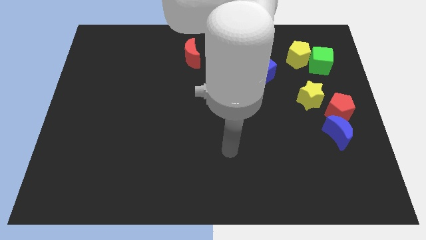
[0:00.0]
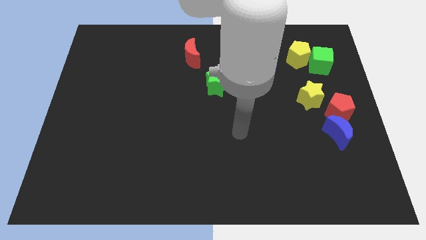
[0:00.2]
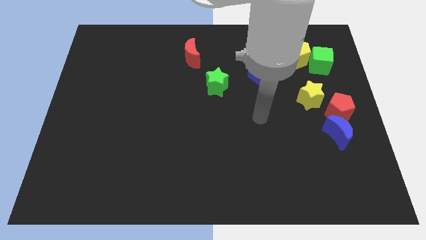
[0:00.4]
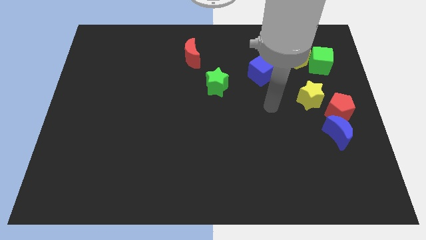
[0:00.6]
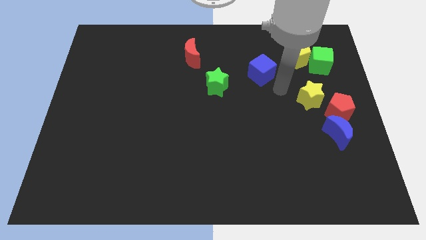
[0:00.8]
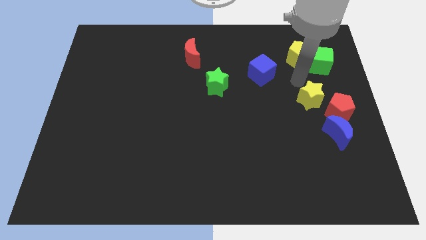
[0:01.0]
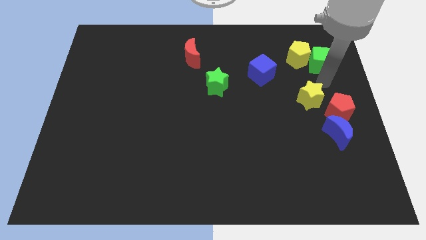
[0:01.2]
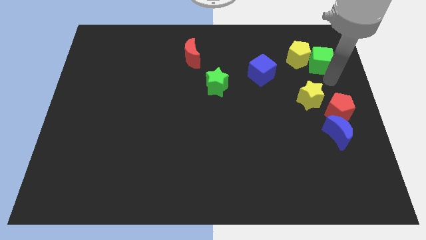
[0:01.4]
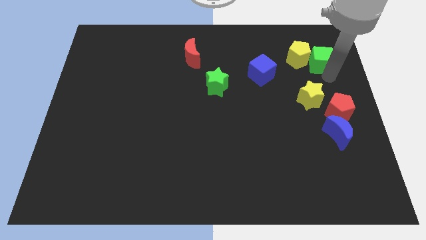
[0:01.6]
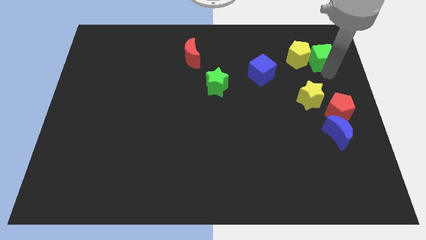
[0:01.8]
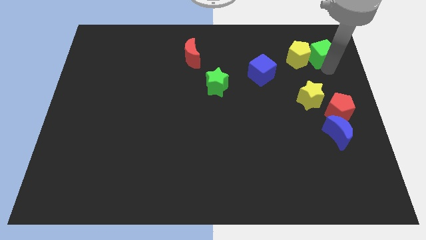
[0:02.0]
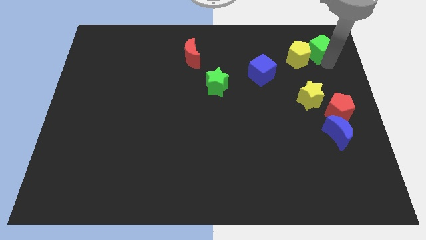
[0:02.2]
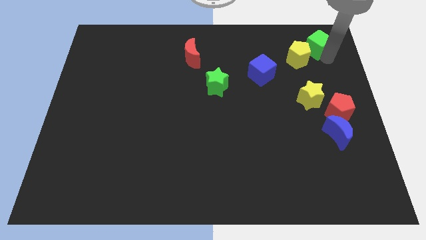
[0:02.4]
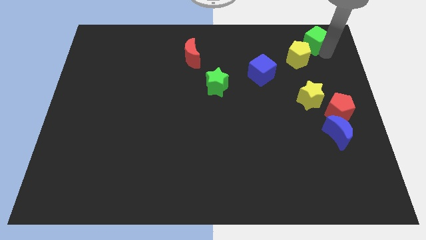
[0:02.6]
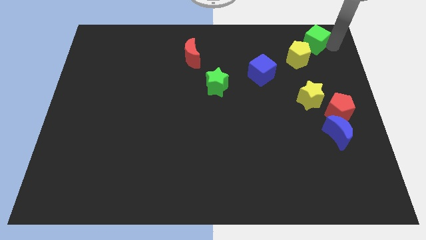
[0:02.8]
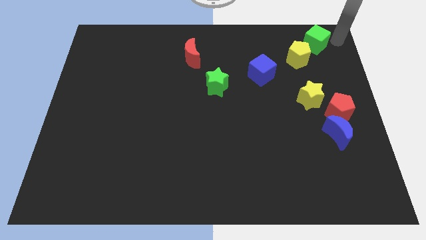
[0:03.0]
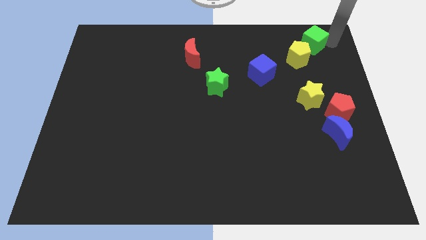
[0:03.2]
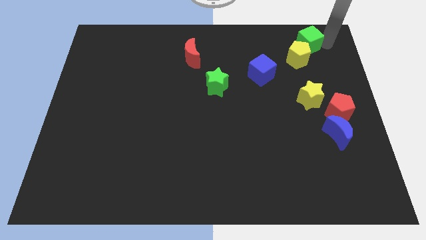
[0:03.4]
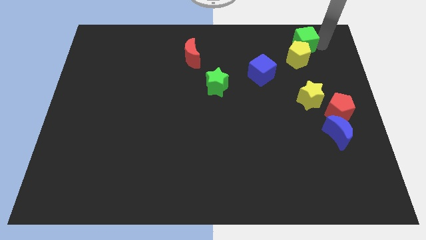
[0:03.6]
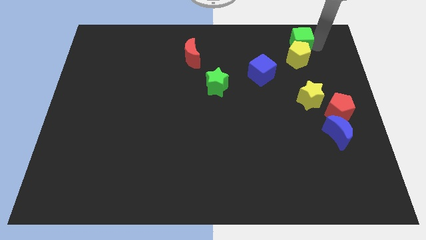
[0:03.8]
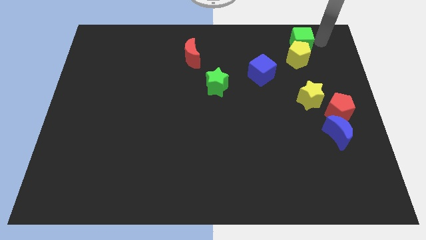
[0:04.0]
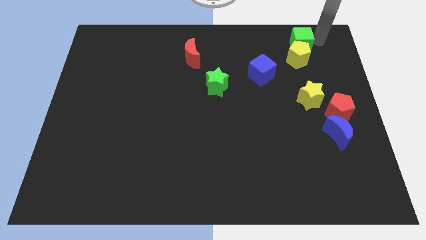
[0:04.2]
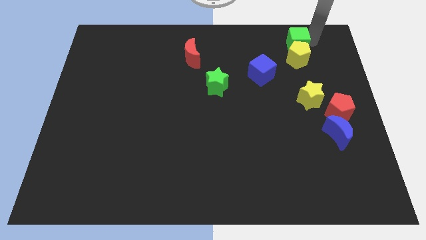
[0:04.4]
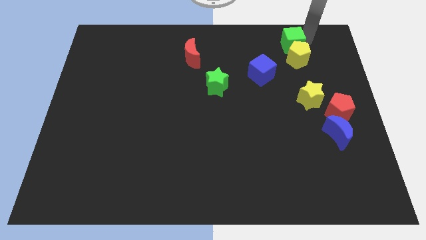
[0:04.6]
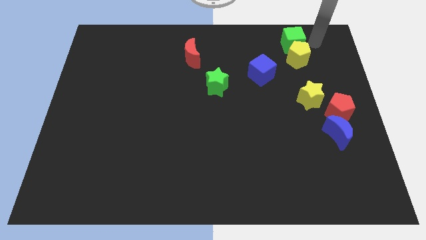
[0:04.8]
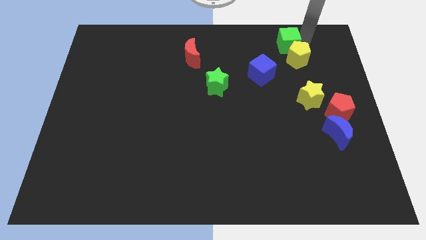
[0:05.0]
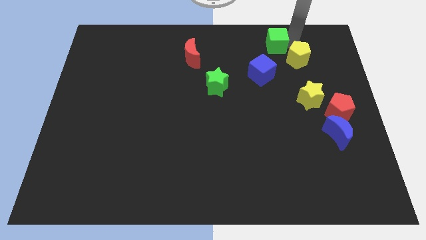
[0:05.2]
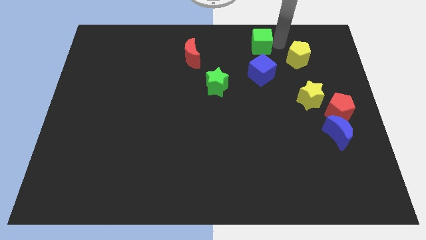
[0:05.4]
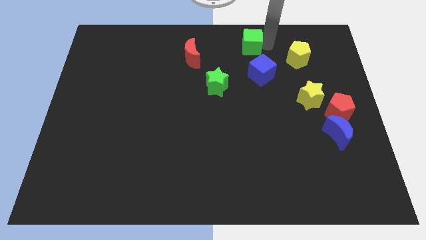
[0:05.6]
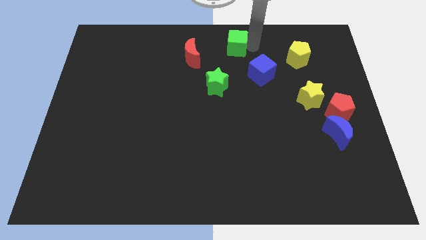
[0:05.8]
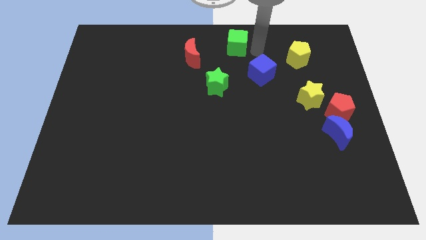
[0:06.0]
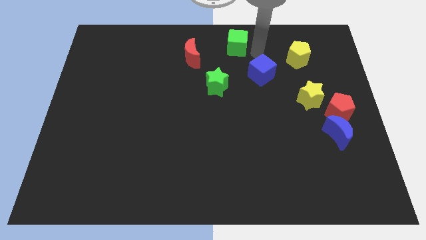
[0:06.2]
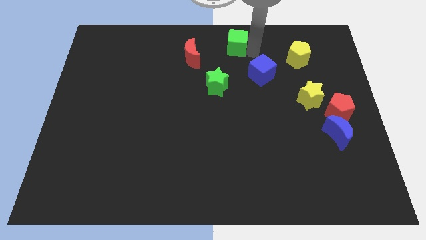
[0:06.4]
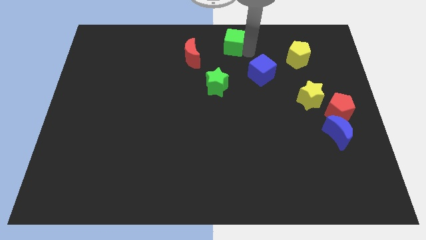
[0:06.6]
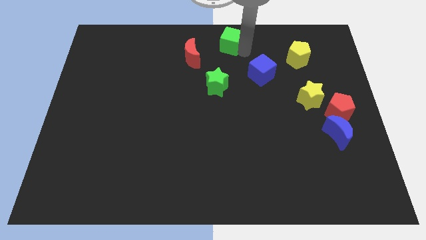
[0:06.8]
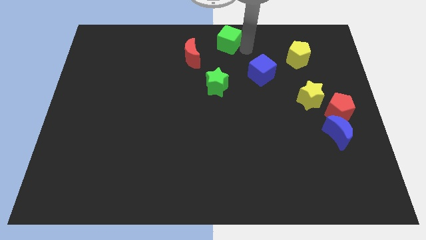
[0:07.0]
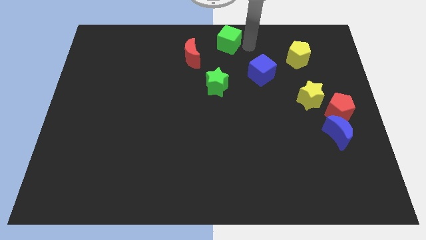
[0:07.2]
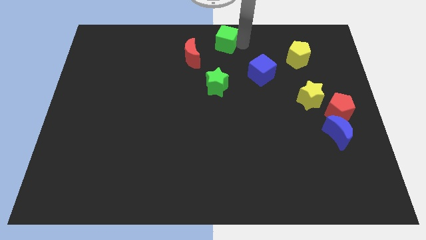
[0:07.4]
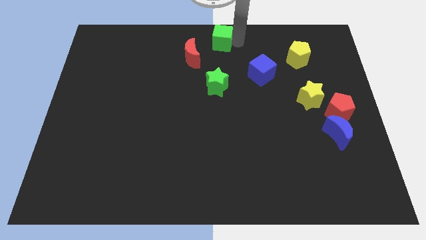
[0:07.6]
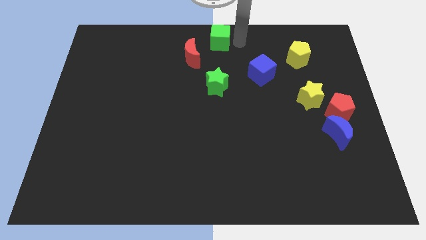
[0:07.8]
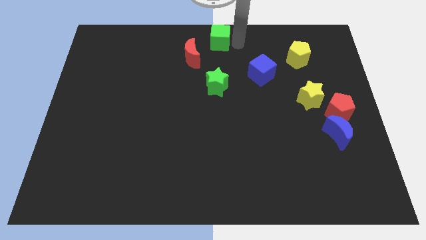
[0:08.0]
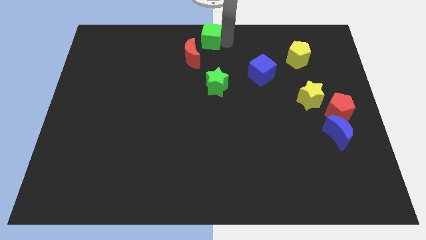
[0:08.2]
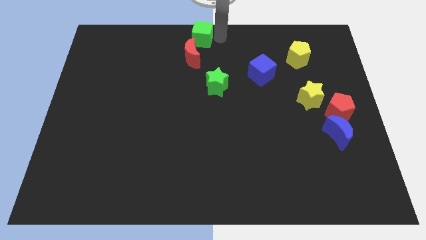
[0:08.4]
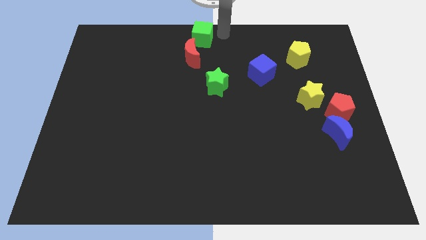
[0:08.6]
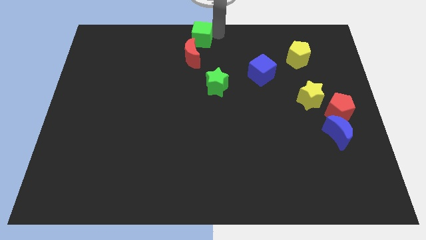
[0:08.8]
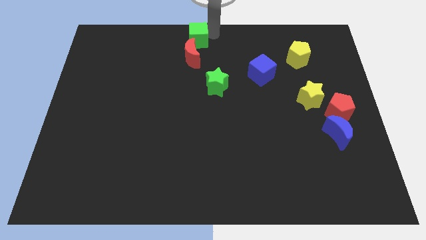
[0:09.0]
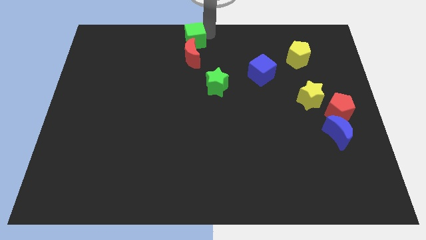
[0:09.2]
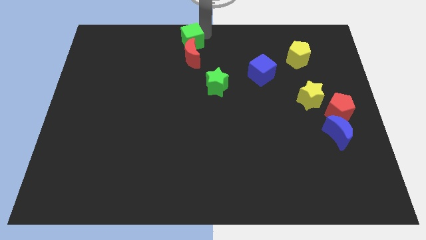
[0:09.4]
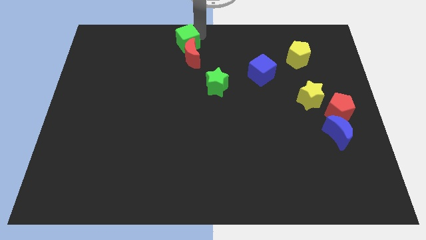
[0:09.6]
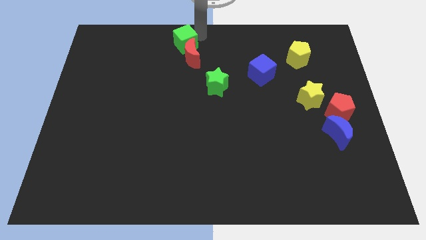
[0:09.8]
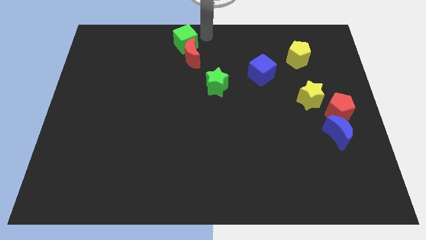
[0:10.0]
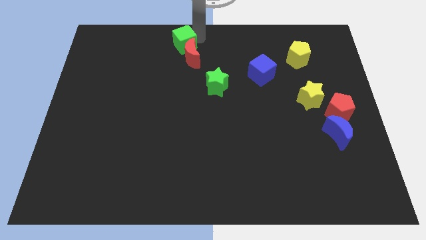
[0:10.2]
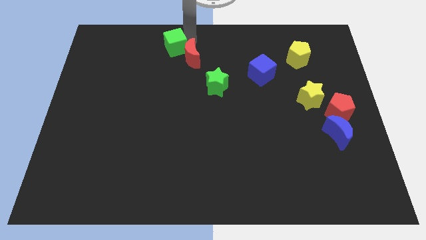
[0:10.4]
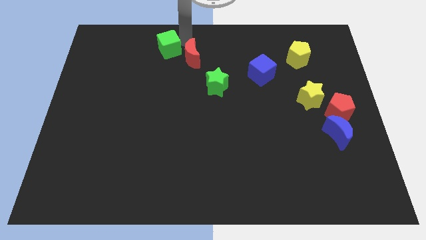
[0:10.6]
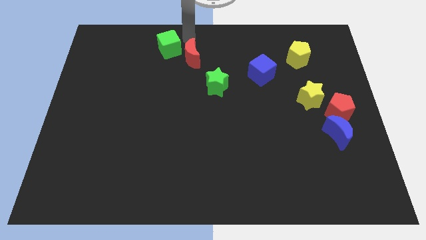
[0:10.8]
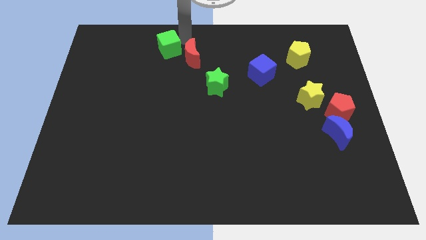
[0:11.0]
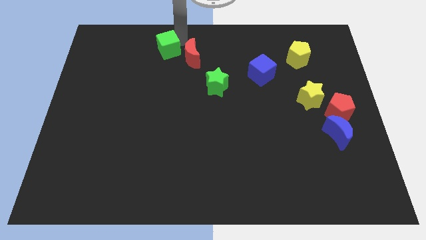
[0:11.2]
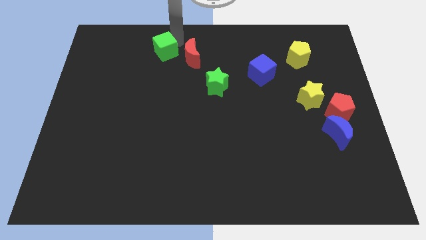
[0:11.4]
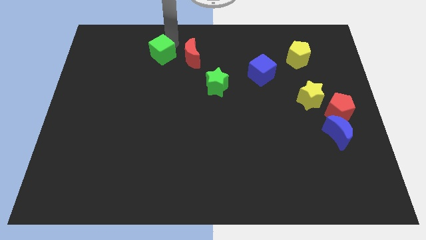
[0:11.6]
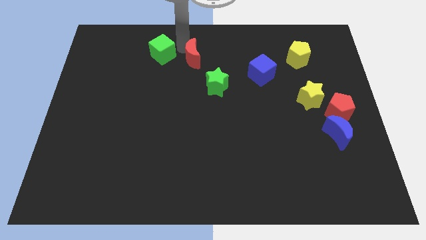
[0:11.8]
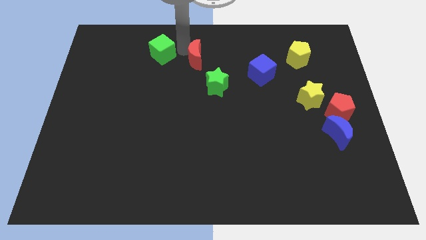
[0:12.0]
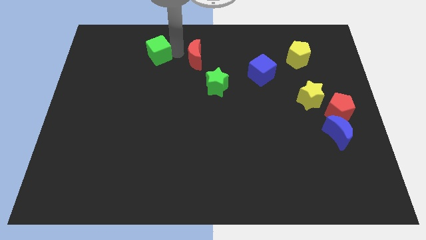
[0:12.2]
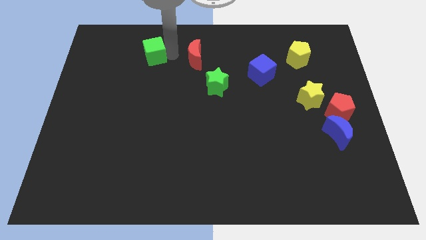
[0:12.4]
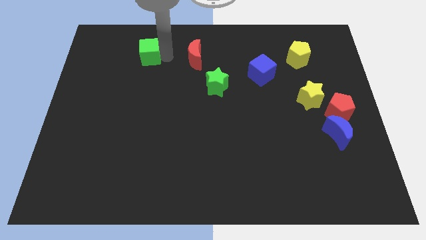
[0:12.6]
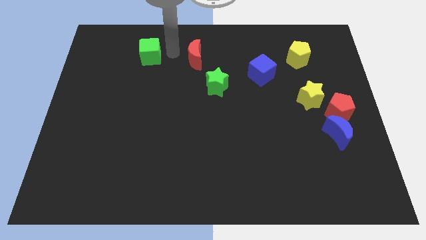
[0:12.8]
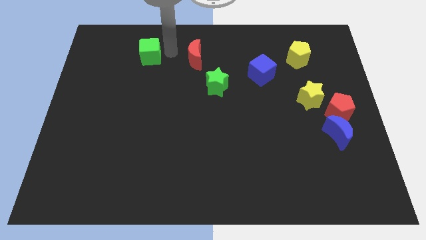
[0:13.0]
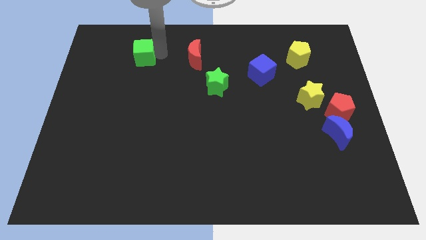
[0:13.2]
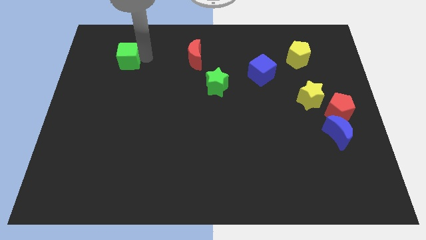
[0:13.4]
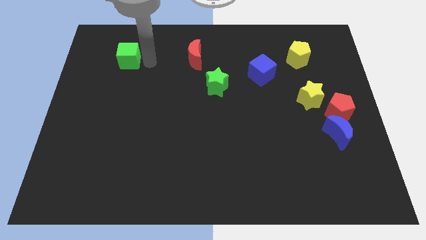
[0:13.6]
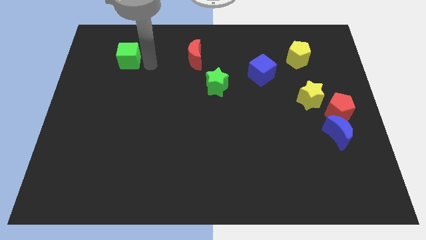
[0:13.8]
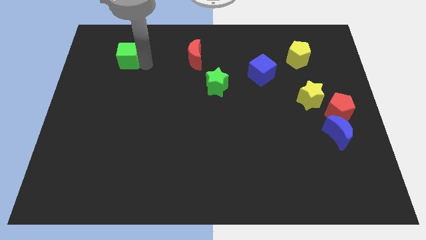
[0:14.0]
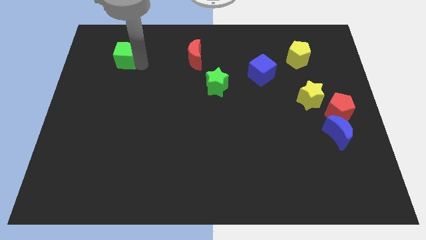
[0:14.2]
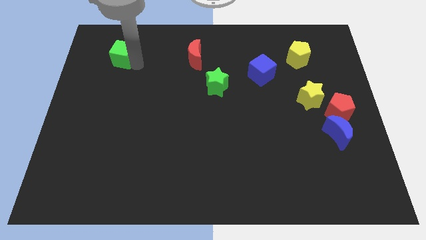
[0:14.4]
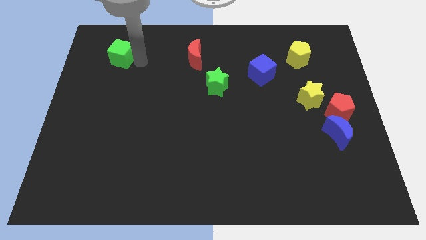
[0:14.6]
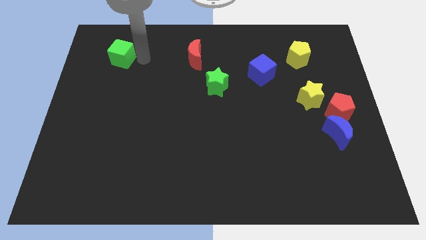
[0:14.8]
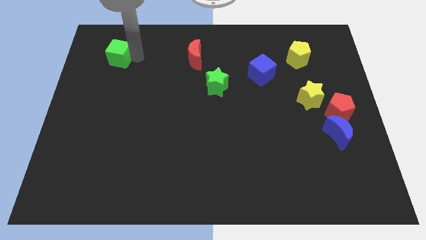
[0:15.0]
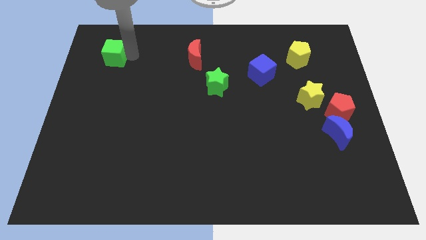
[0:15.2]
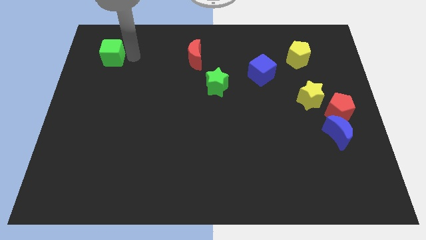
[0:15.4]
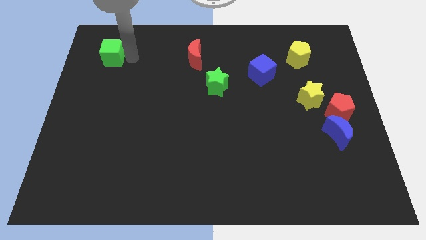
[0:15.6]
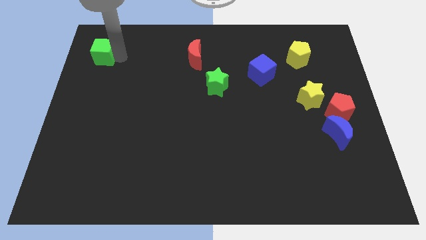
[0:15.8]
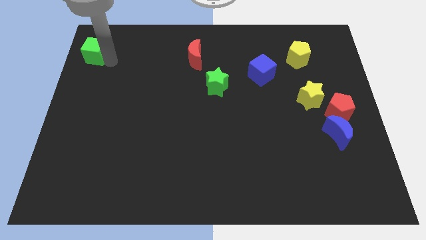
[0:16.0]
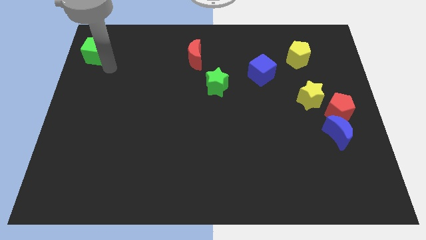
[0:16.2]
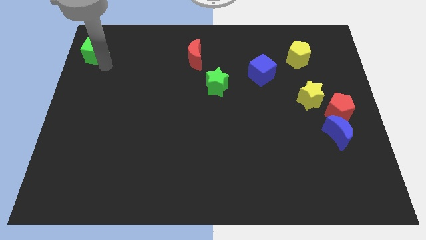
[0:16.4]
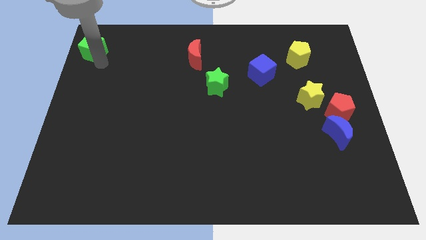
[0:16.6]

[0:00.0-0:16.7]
slide the green cube to the upper left corner
